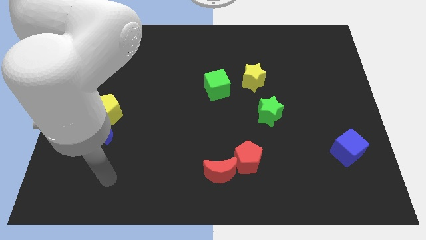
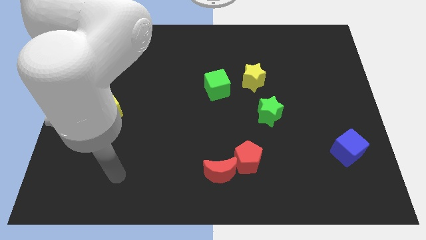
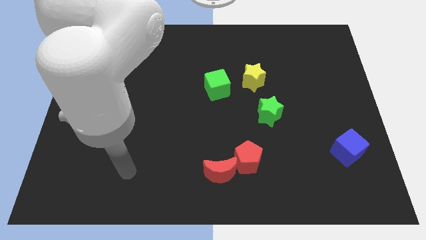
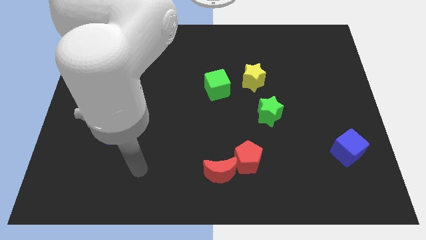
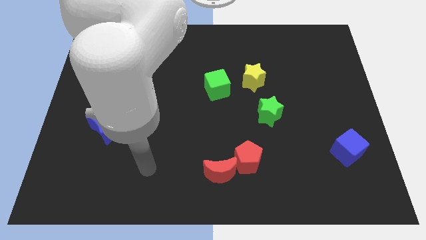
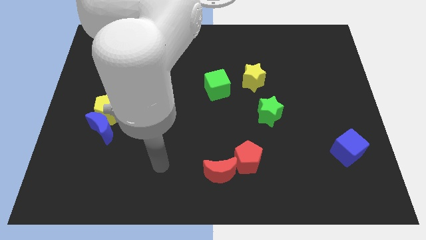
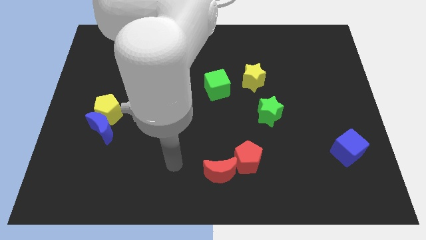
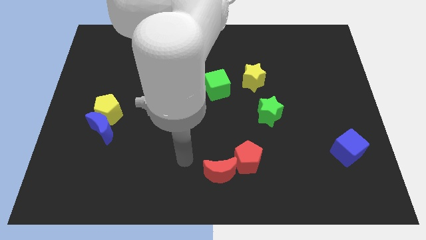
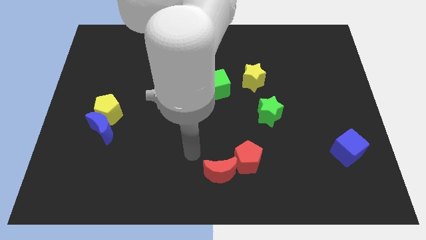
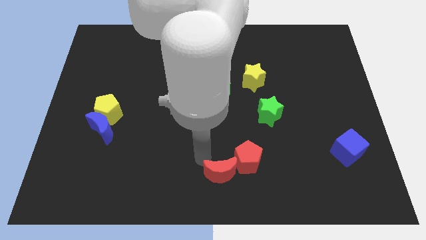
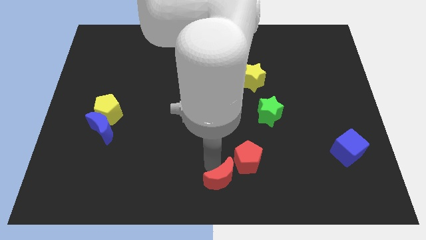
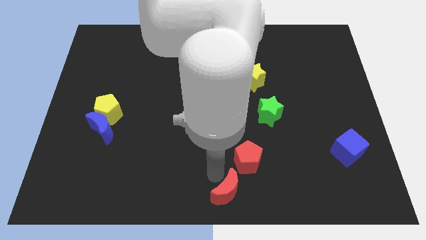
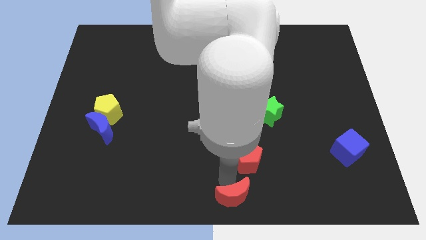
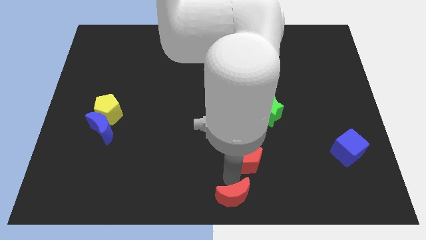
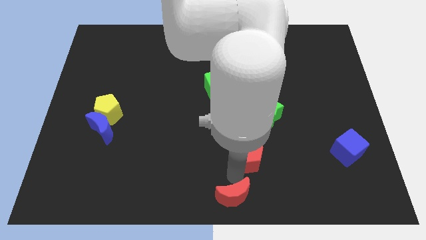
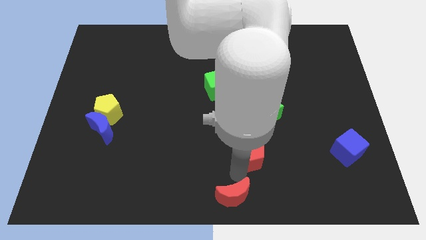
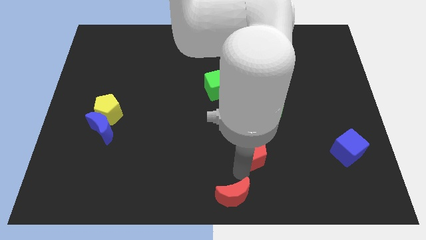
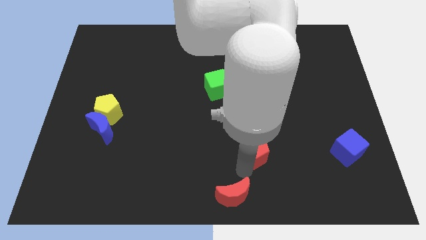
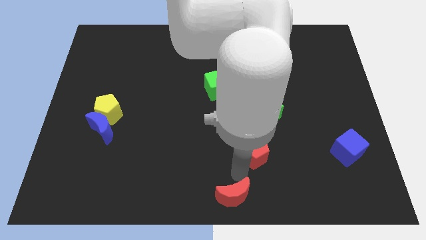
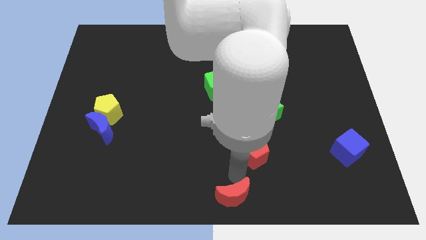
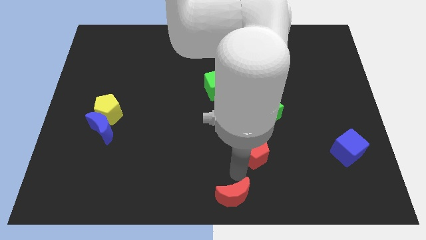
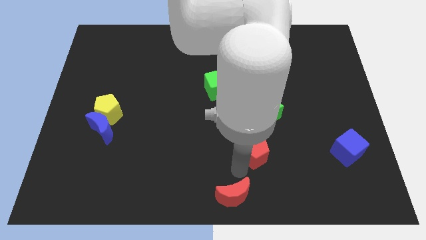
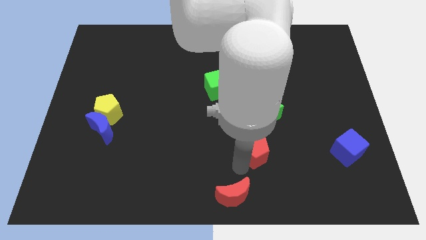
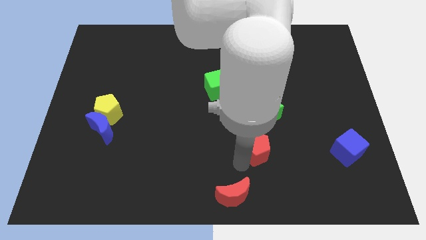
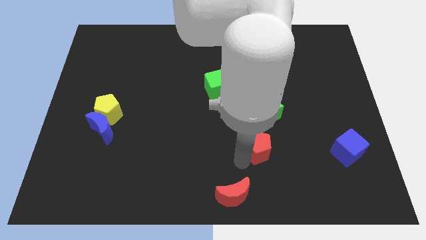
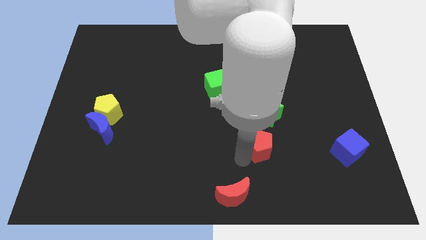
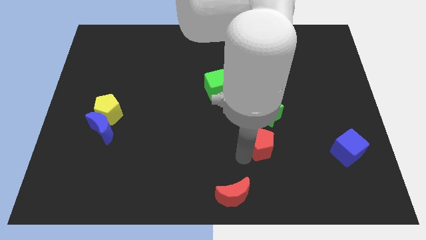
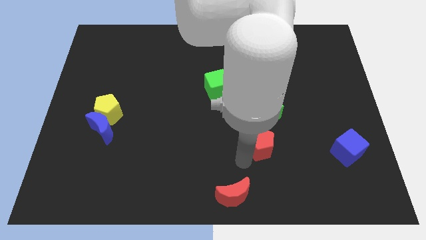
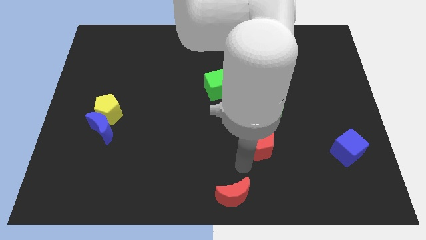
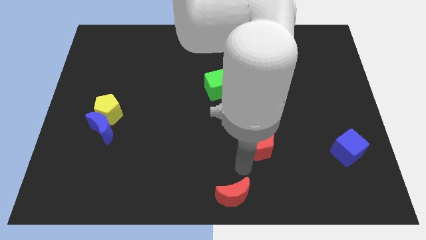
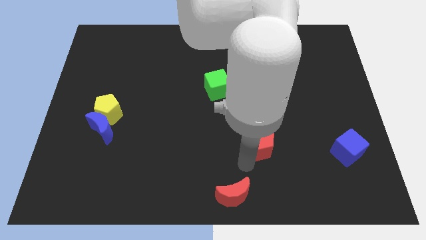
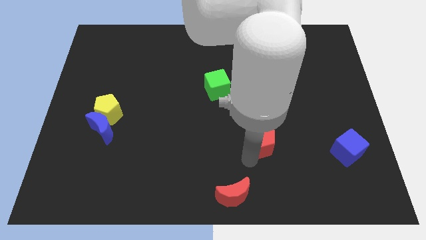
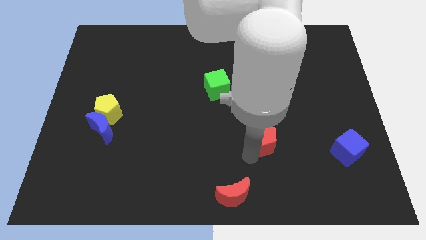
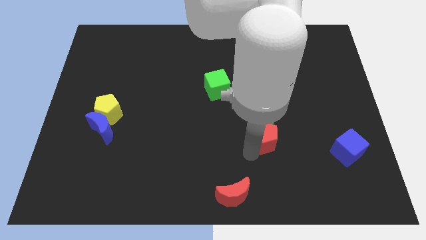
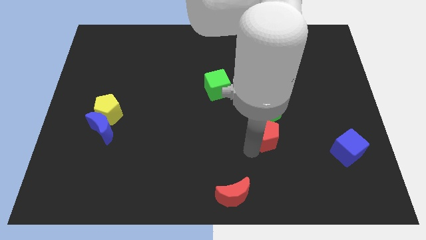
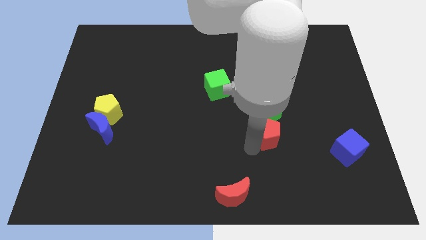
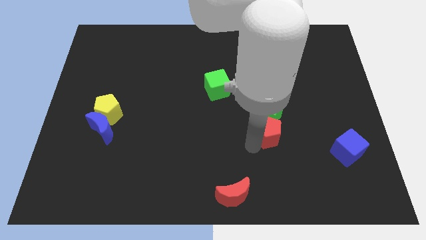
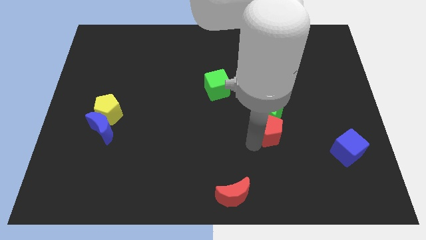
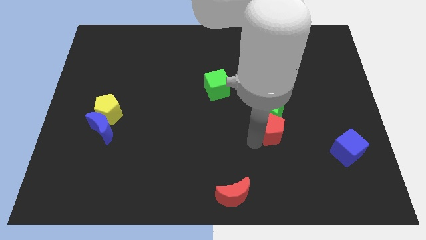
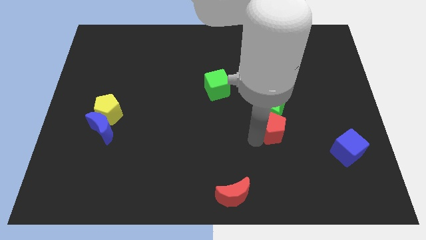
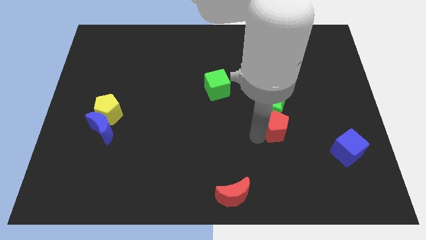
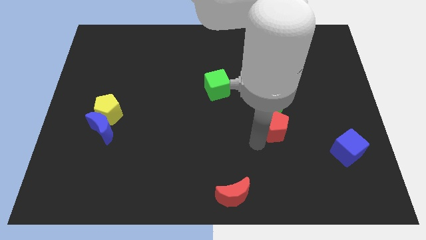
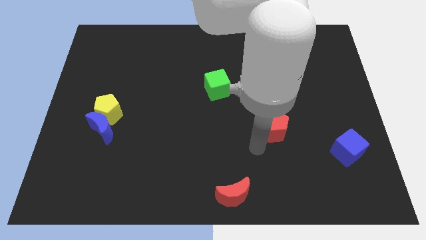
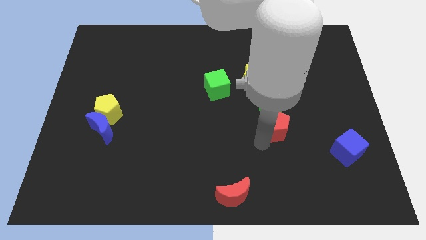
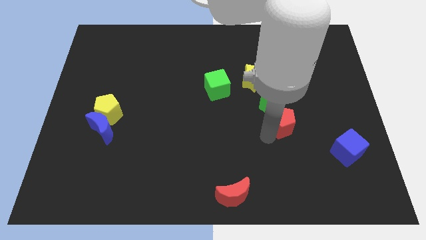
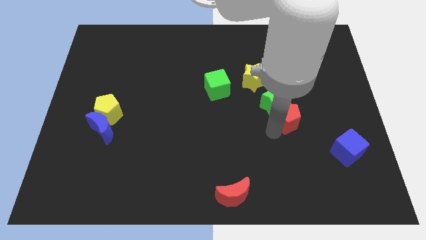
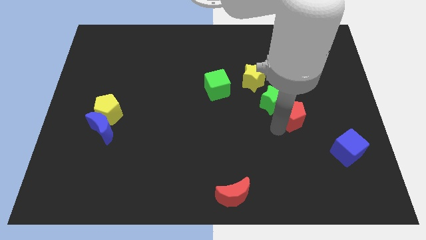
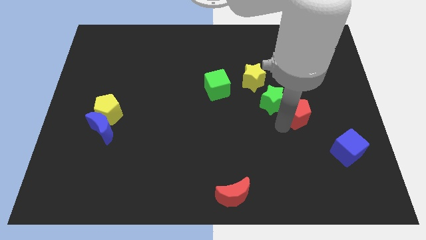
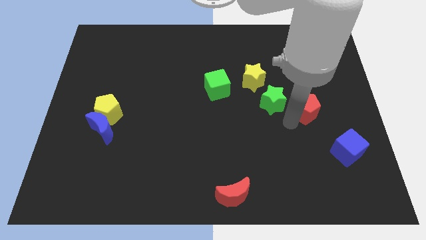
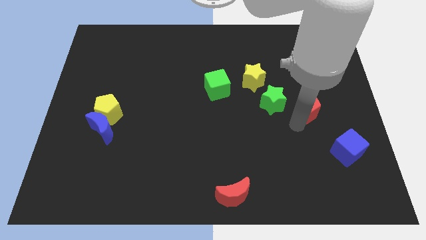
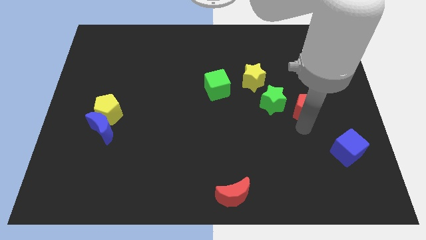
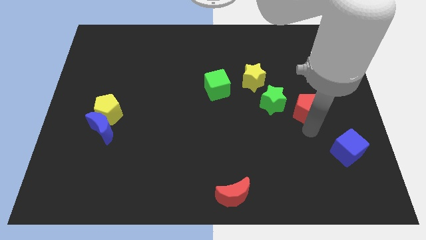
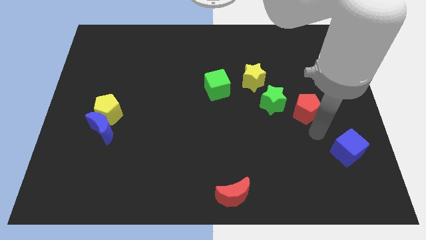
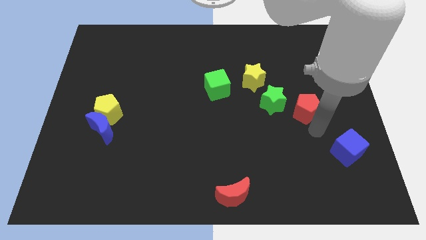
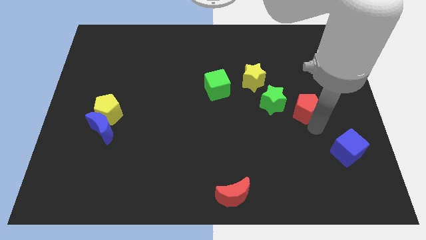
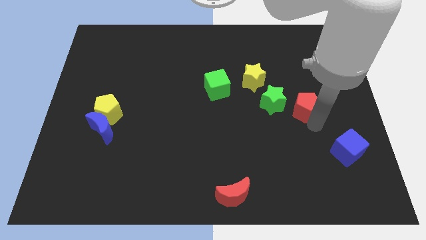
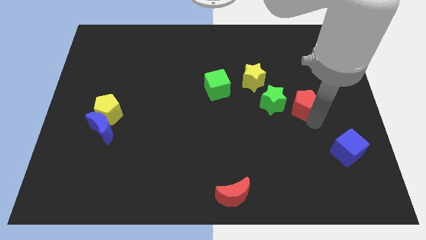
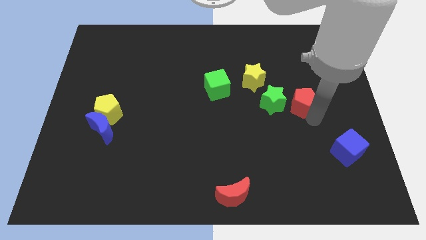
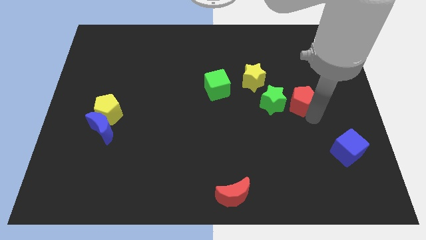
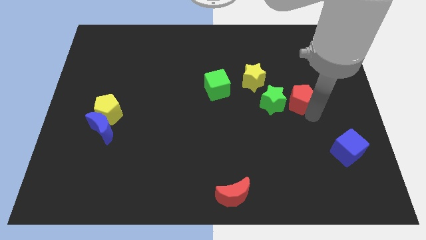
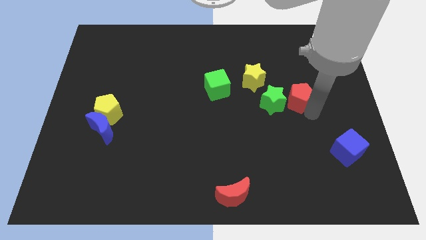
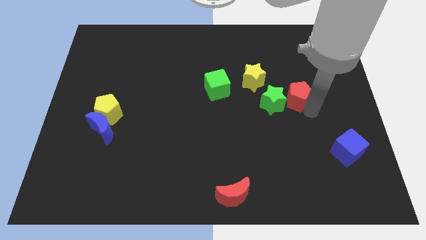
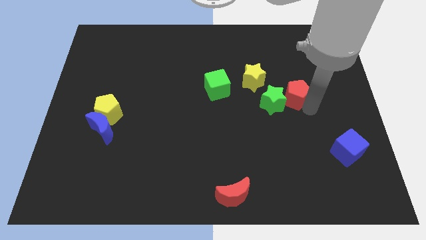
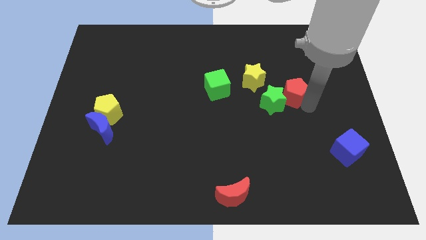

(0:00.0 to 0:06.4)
put the red pentagon right of the yellow star
